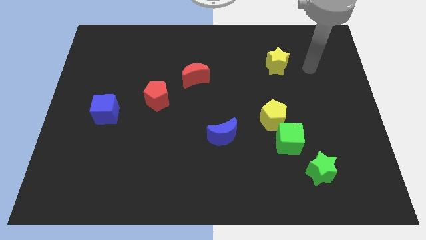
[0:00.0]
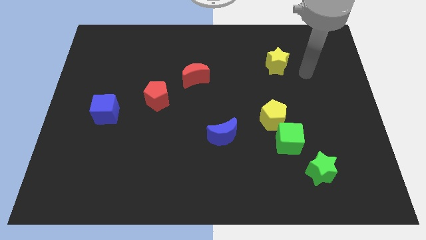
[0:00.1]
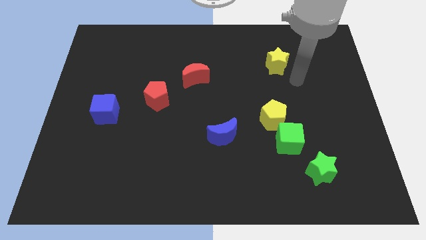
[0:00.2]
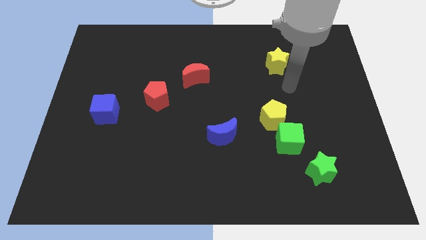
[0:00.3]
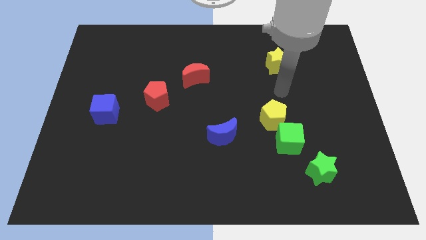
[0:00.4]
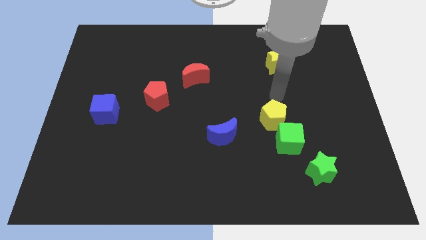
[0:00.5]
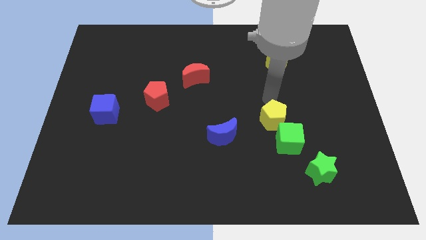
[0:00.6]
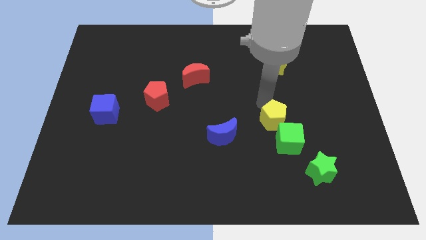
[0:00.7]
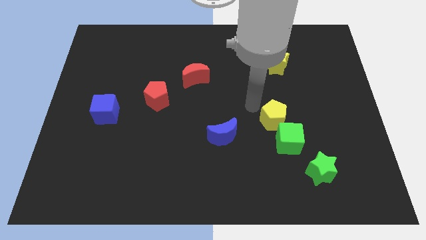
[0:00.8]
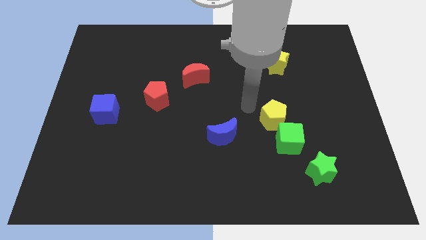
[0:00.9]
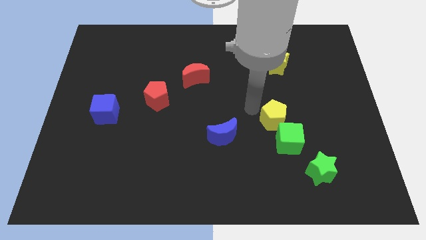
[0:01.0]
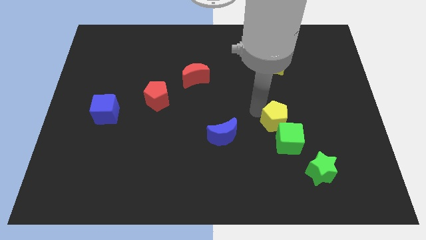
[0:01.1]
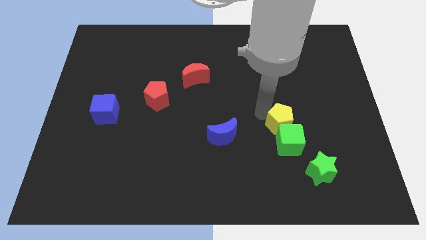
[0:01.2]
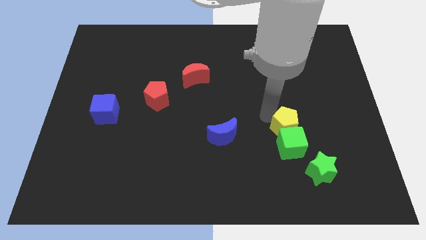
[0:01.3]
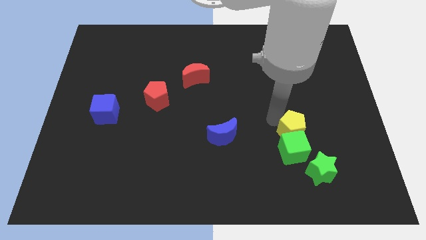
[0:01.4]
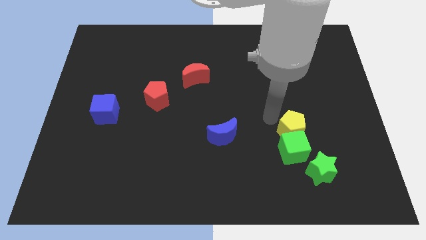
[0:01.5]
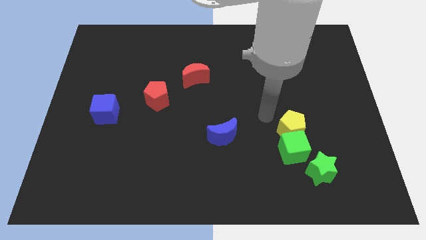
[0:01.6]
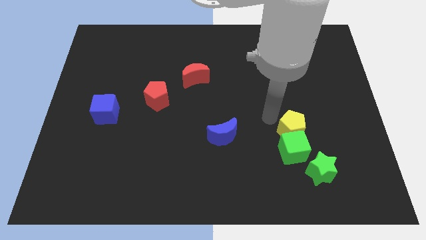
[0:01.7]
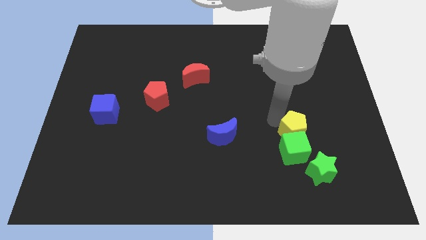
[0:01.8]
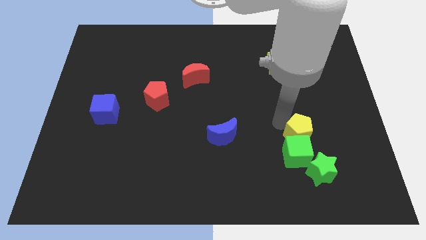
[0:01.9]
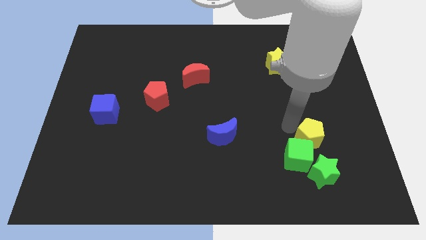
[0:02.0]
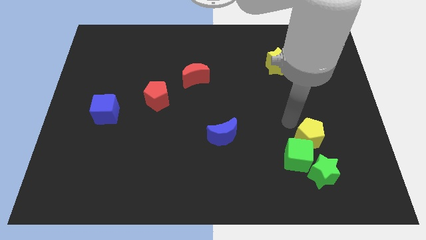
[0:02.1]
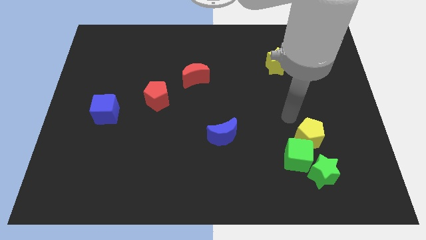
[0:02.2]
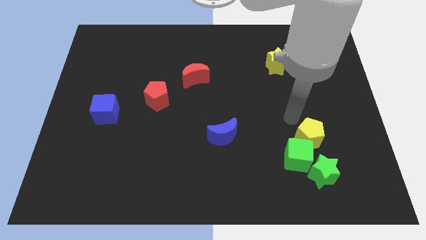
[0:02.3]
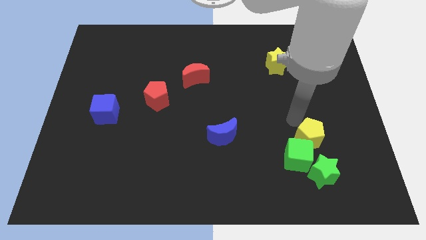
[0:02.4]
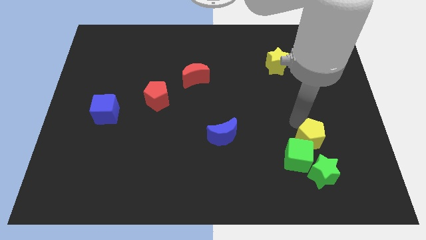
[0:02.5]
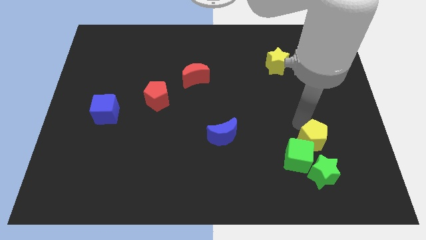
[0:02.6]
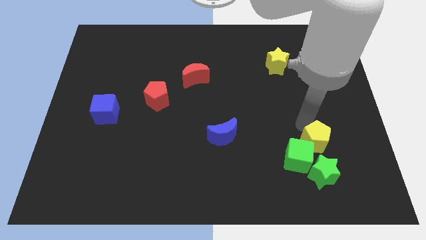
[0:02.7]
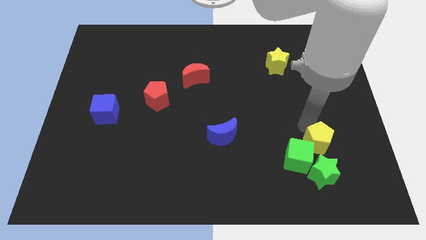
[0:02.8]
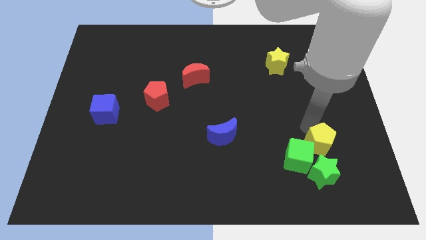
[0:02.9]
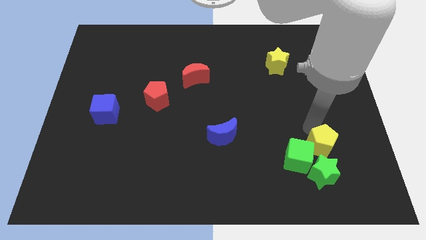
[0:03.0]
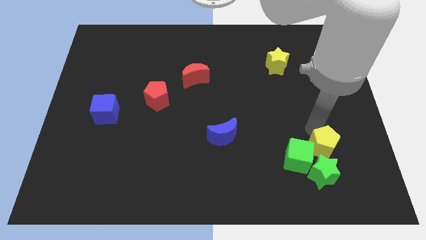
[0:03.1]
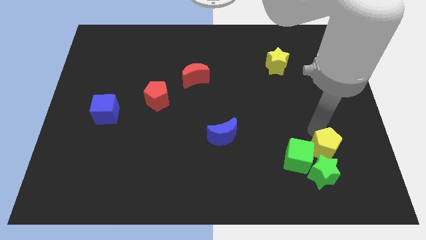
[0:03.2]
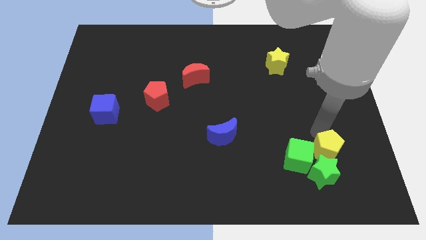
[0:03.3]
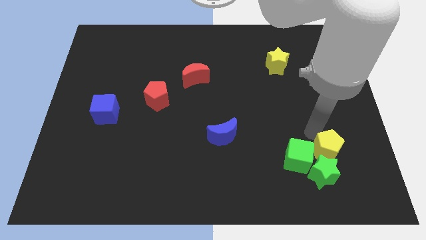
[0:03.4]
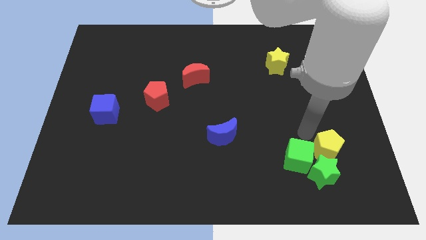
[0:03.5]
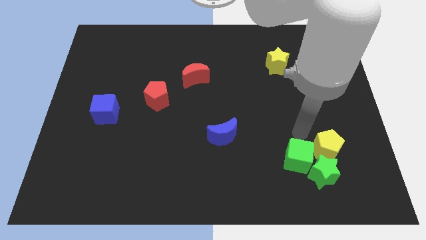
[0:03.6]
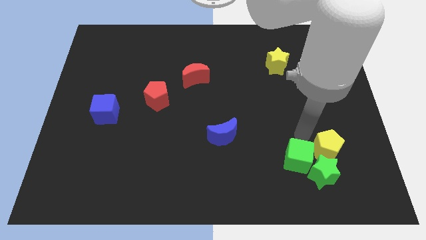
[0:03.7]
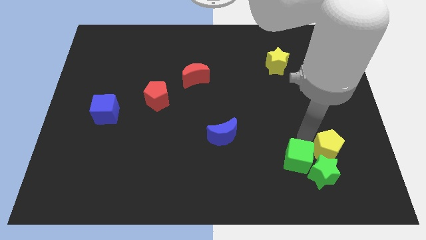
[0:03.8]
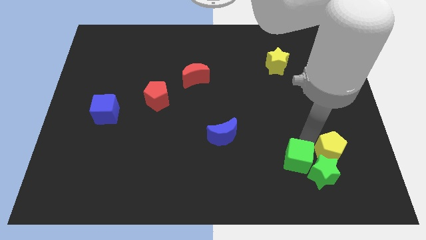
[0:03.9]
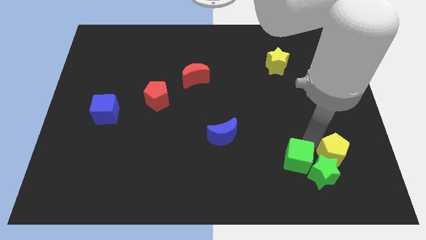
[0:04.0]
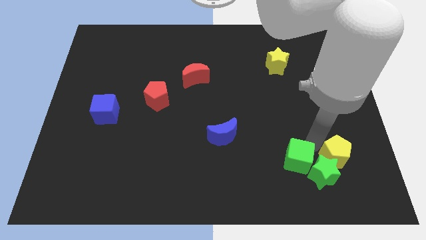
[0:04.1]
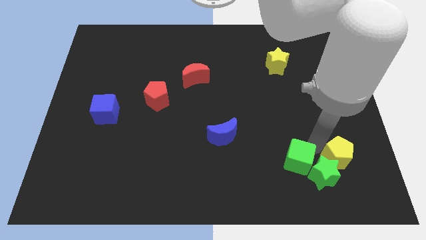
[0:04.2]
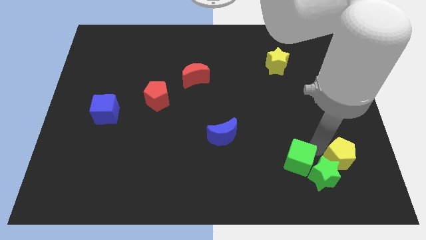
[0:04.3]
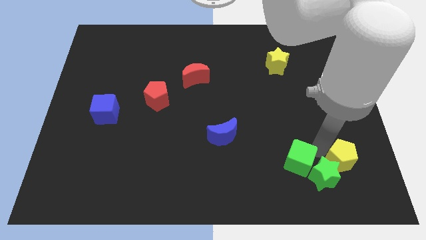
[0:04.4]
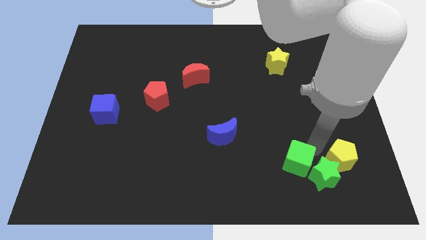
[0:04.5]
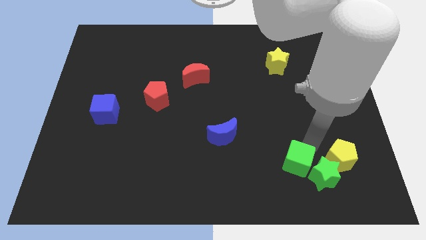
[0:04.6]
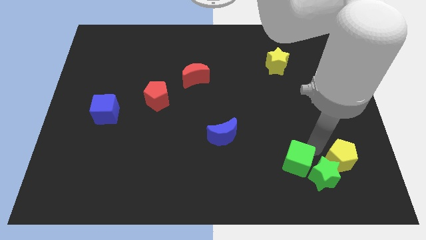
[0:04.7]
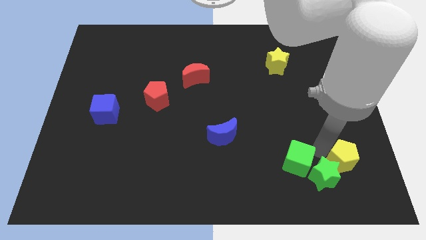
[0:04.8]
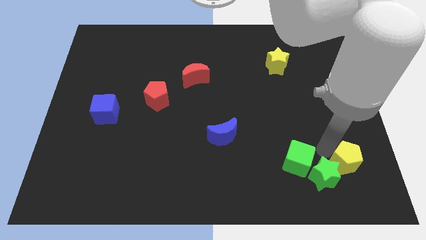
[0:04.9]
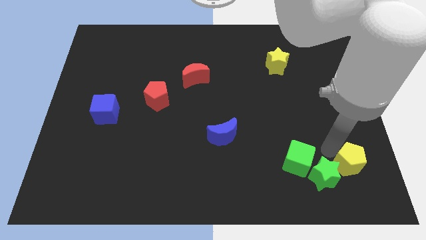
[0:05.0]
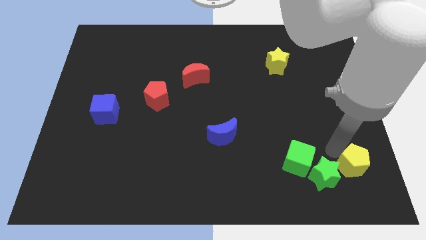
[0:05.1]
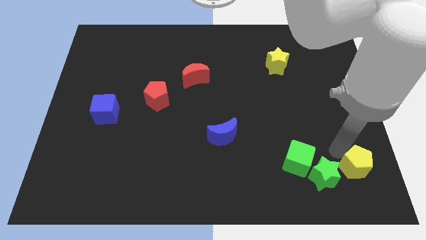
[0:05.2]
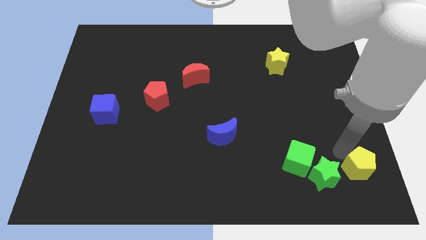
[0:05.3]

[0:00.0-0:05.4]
push the yellow pentagon to the bottom right corner
